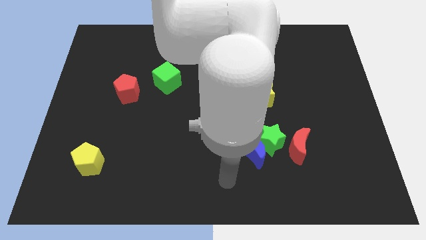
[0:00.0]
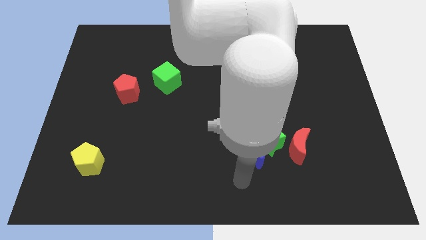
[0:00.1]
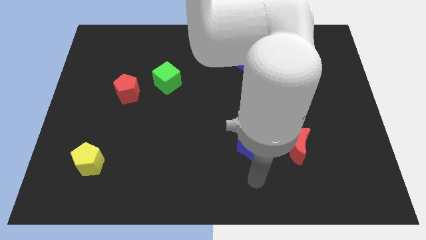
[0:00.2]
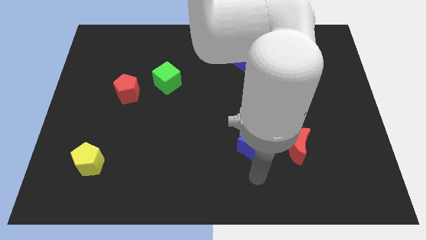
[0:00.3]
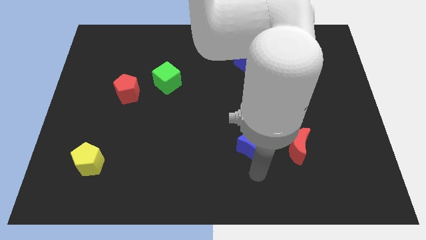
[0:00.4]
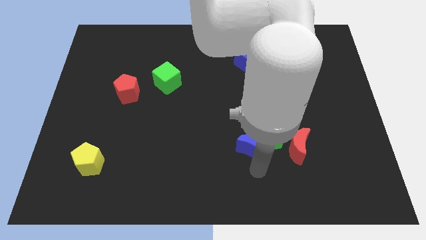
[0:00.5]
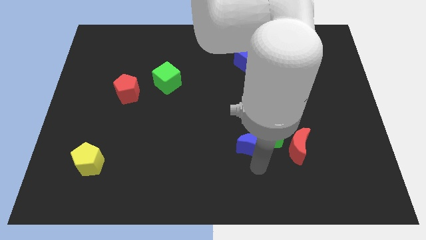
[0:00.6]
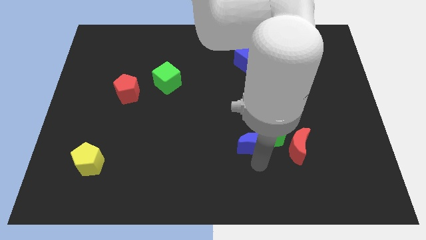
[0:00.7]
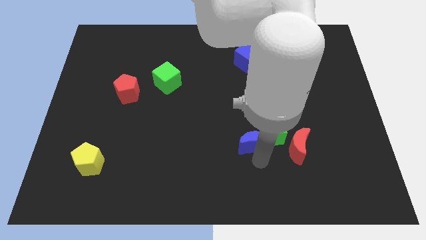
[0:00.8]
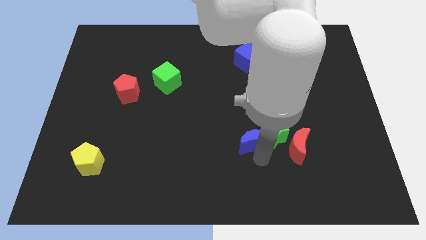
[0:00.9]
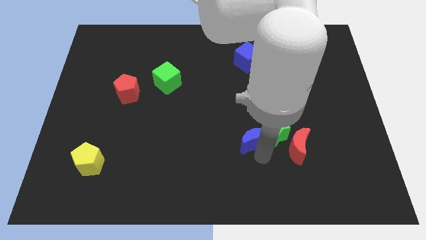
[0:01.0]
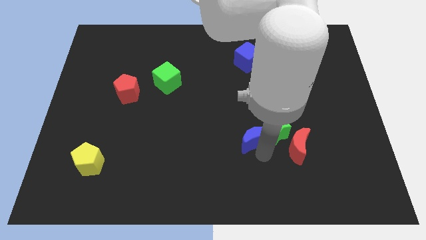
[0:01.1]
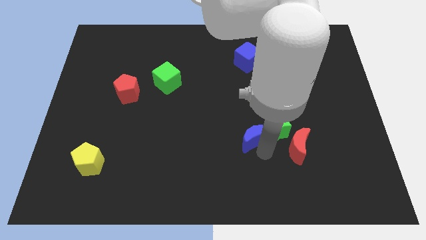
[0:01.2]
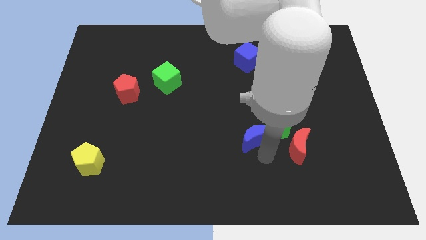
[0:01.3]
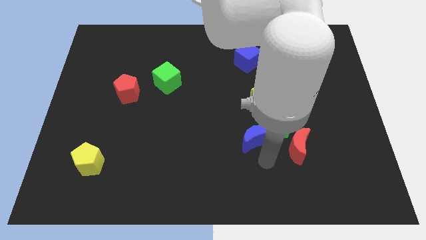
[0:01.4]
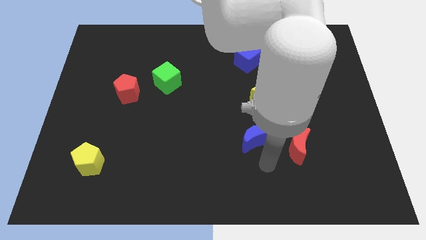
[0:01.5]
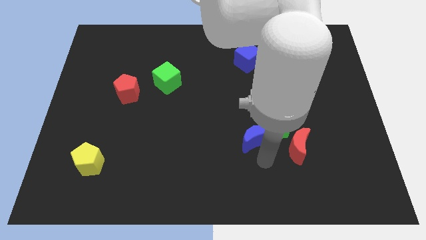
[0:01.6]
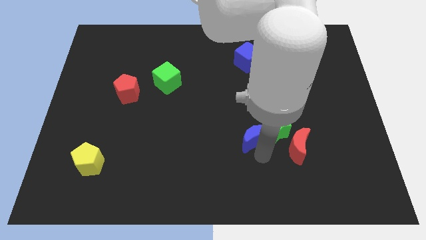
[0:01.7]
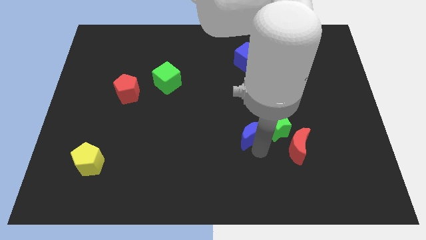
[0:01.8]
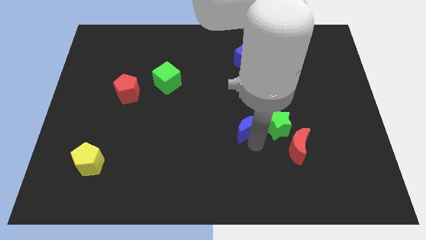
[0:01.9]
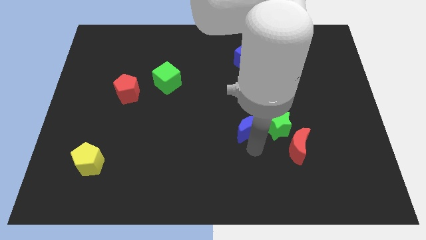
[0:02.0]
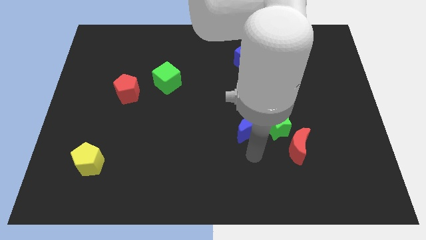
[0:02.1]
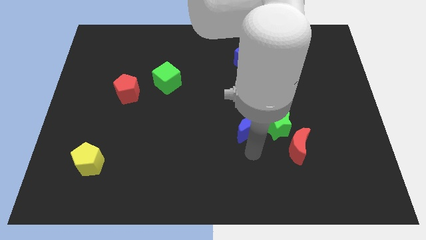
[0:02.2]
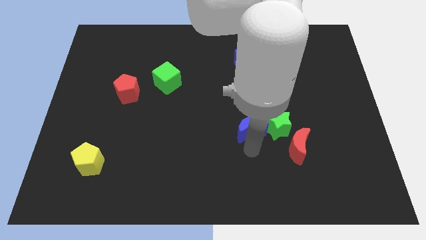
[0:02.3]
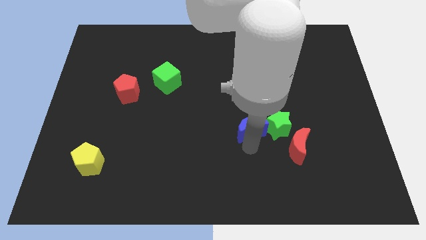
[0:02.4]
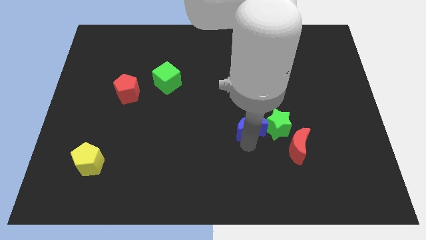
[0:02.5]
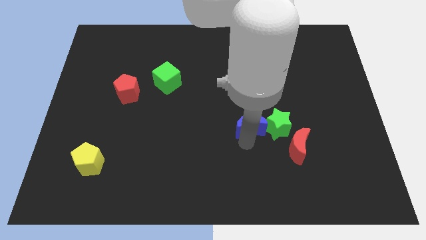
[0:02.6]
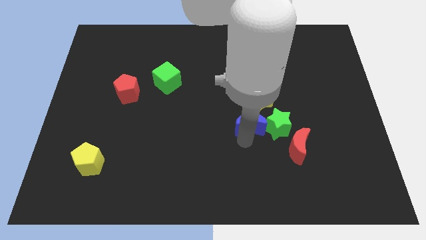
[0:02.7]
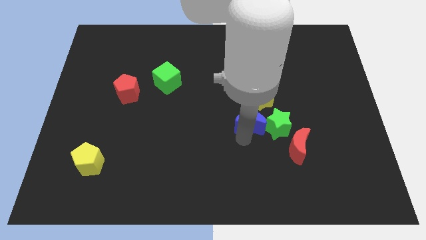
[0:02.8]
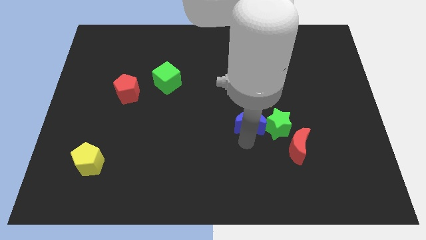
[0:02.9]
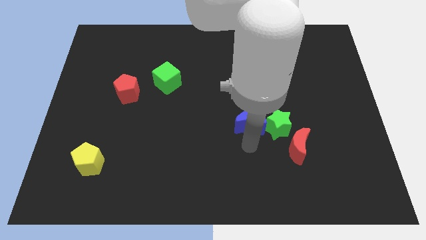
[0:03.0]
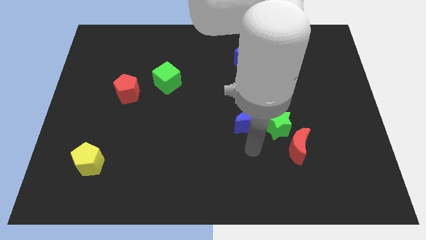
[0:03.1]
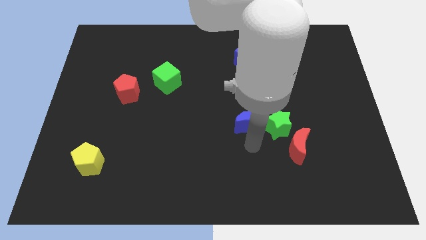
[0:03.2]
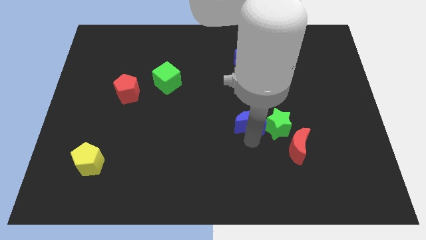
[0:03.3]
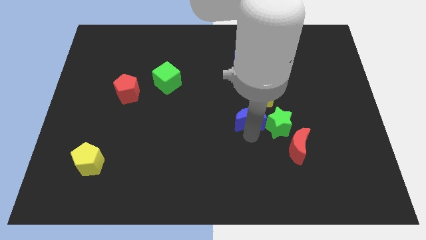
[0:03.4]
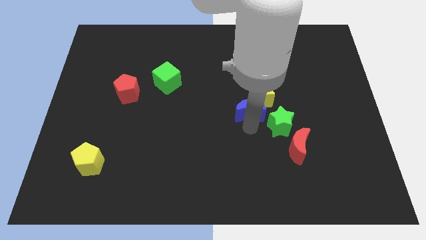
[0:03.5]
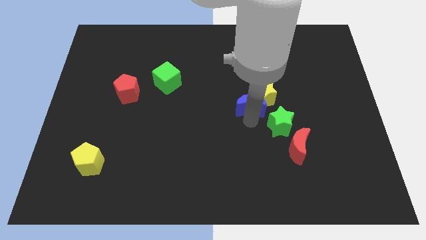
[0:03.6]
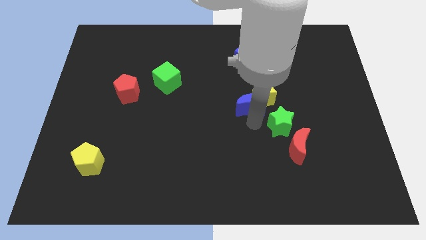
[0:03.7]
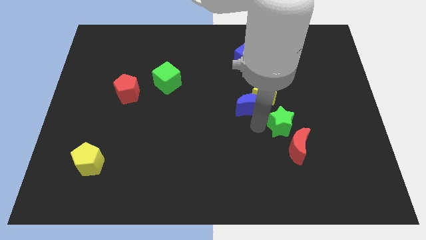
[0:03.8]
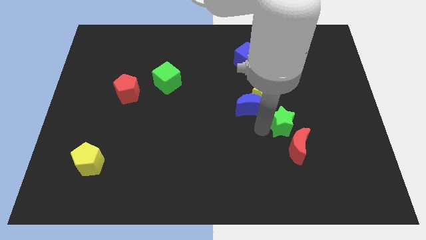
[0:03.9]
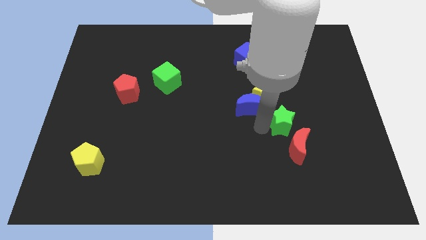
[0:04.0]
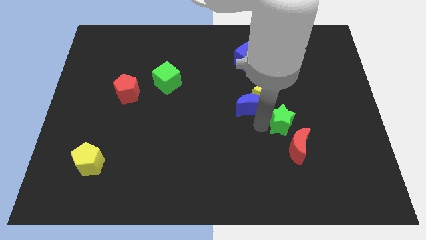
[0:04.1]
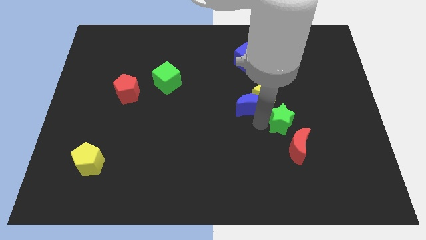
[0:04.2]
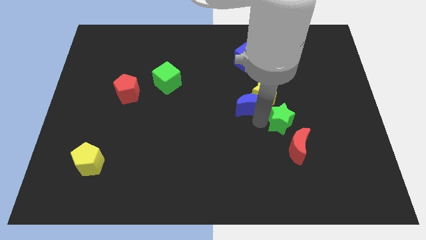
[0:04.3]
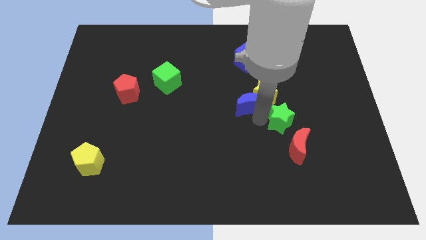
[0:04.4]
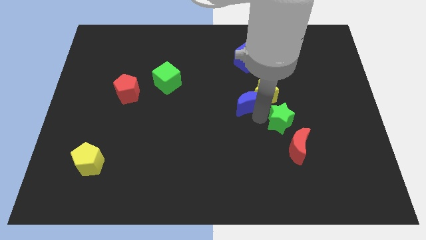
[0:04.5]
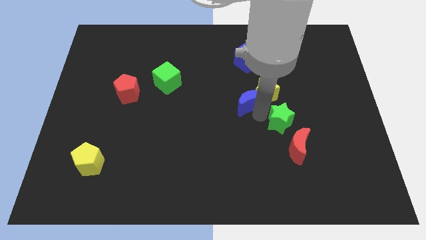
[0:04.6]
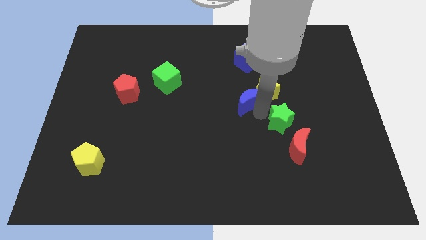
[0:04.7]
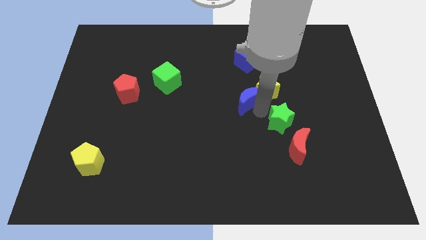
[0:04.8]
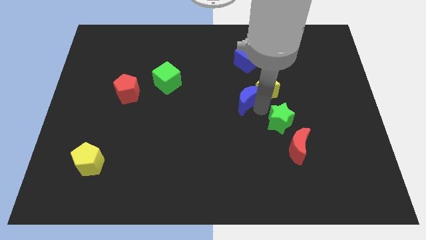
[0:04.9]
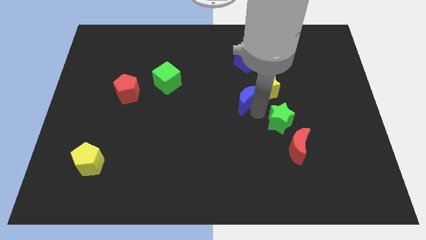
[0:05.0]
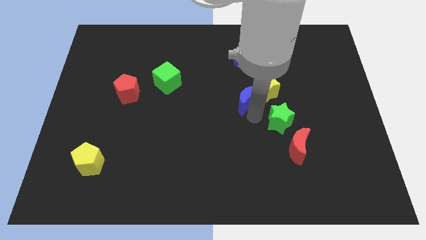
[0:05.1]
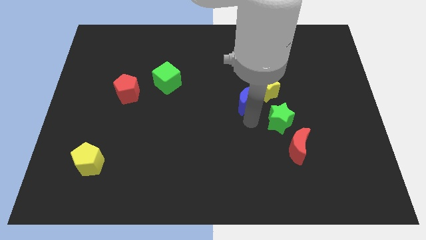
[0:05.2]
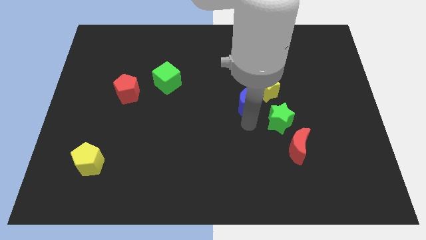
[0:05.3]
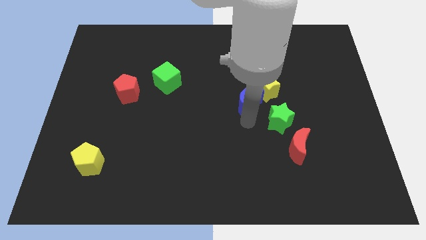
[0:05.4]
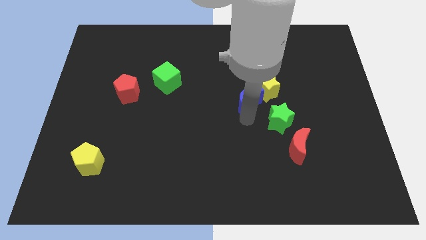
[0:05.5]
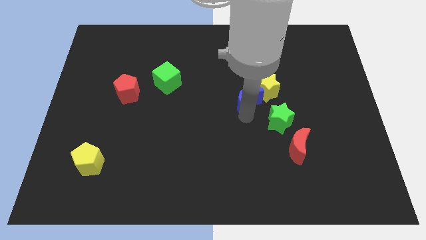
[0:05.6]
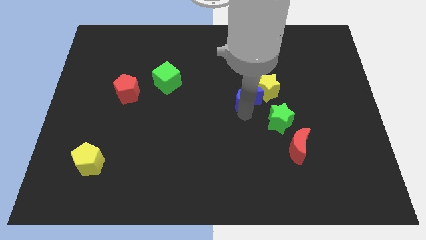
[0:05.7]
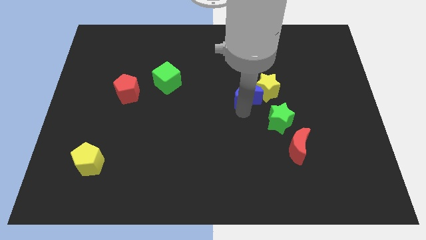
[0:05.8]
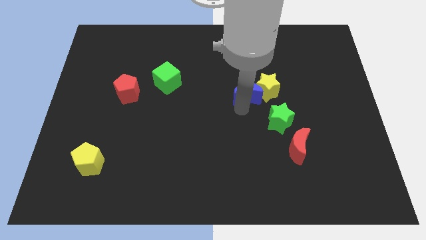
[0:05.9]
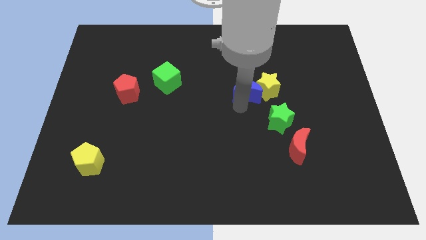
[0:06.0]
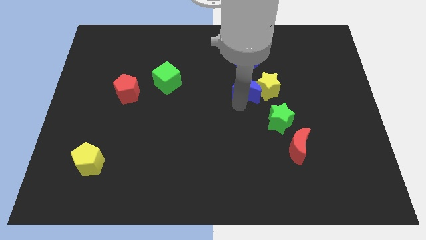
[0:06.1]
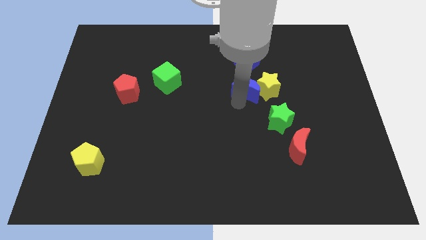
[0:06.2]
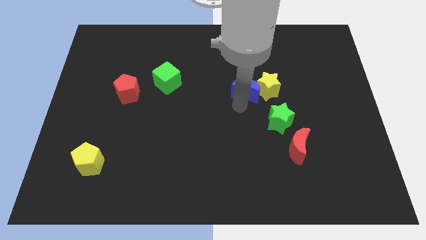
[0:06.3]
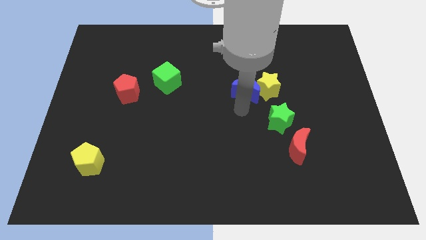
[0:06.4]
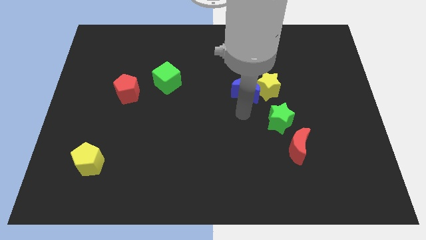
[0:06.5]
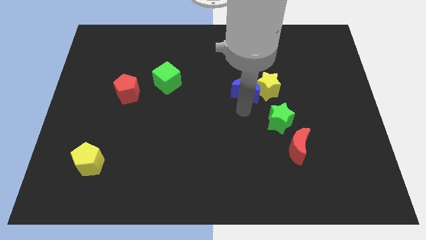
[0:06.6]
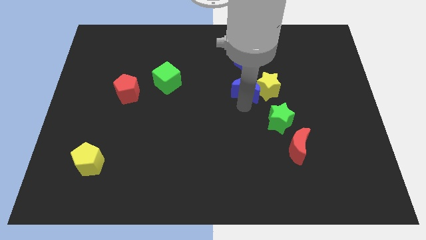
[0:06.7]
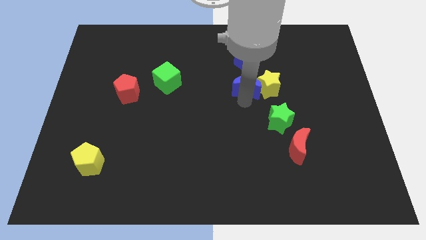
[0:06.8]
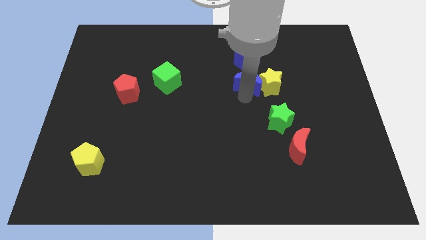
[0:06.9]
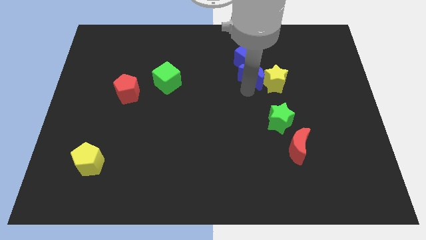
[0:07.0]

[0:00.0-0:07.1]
put the blue moon towards the blue cube
